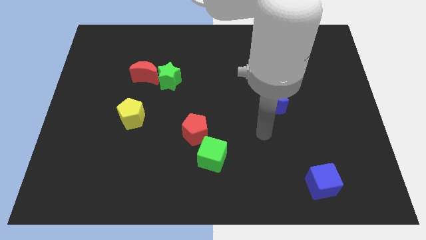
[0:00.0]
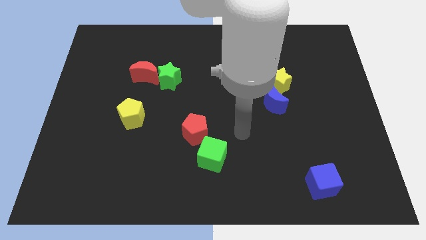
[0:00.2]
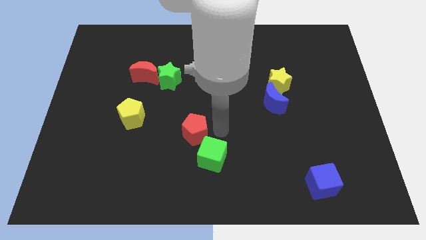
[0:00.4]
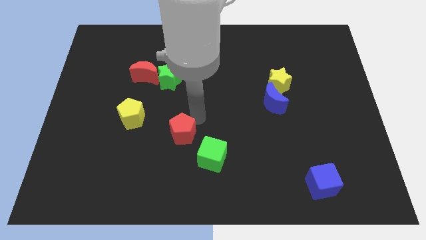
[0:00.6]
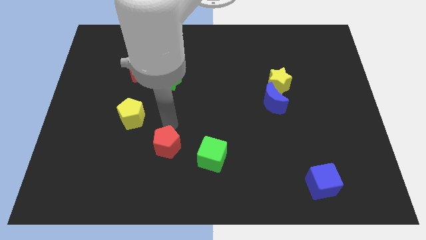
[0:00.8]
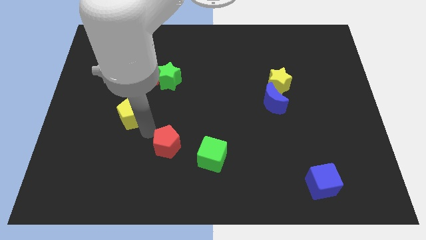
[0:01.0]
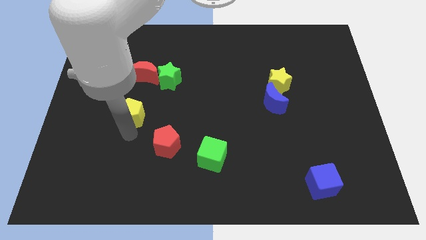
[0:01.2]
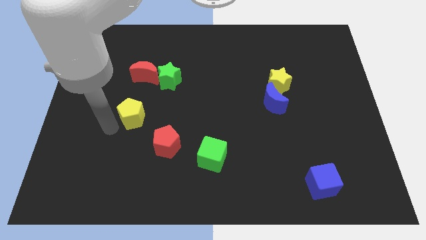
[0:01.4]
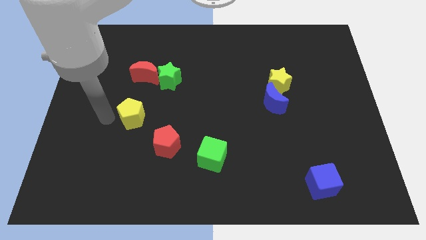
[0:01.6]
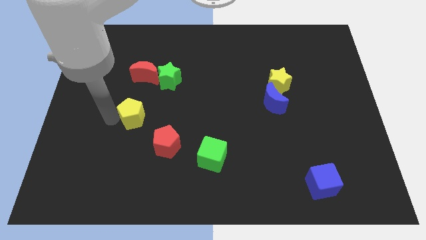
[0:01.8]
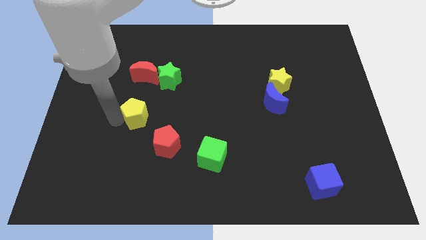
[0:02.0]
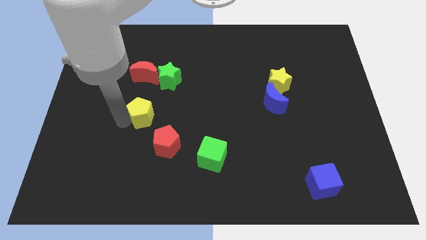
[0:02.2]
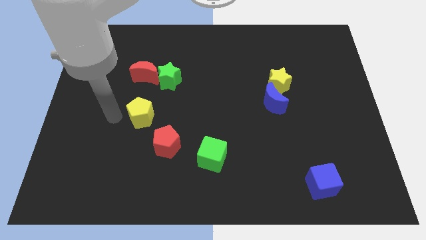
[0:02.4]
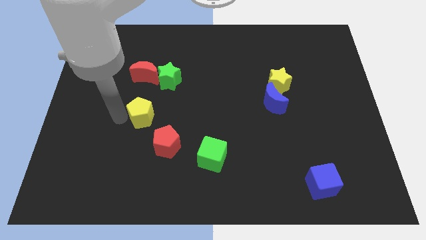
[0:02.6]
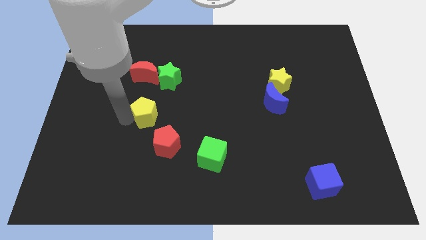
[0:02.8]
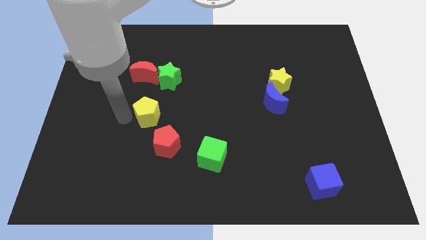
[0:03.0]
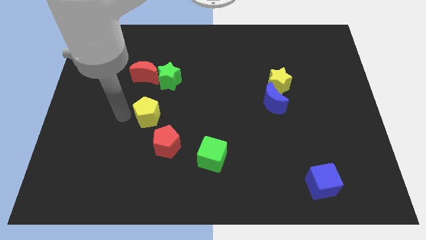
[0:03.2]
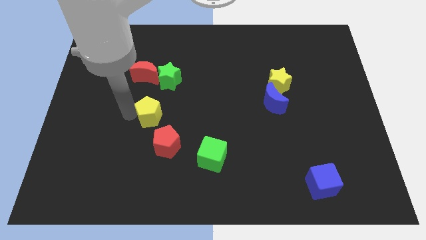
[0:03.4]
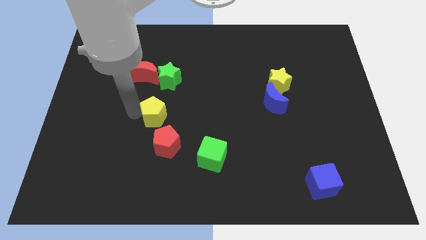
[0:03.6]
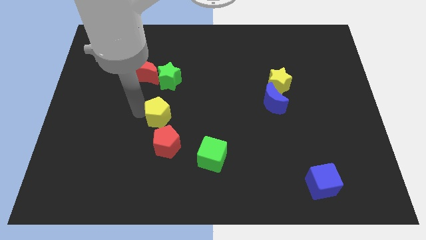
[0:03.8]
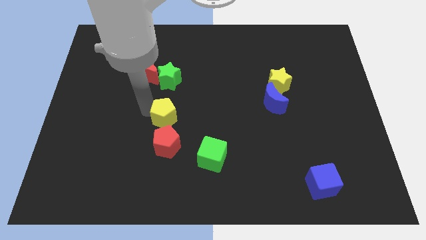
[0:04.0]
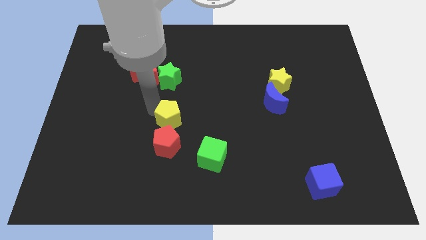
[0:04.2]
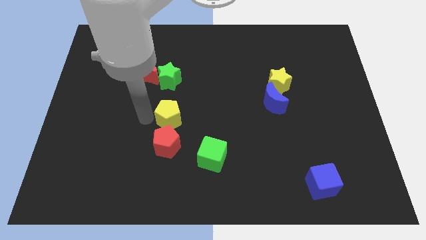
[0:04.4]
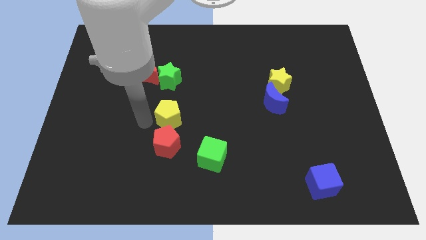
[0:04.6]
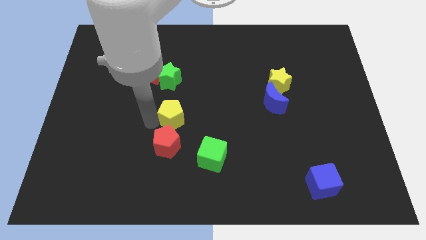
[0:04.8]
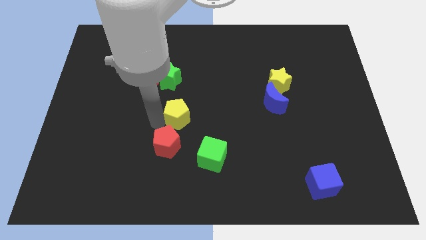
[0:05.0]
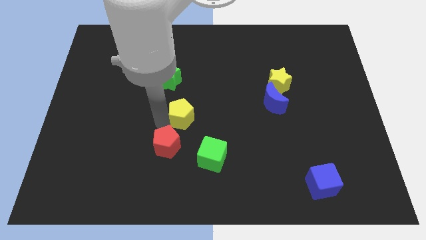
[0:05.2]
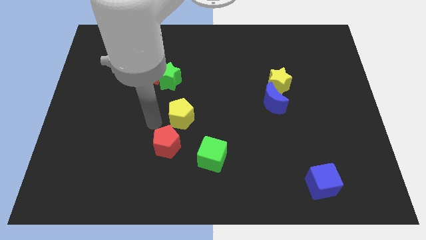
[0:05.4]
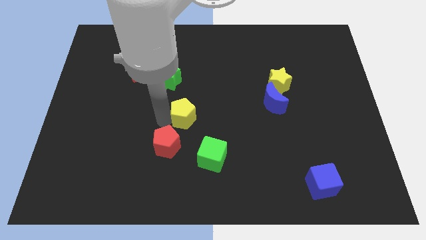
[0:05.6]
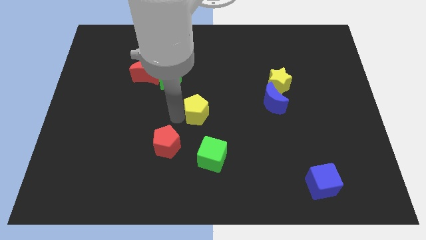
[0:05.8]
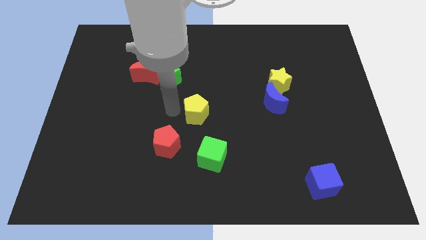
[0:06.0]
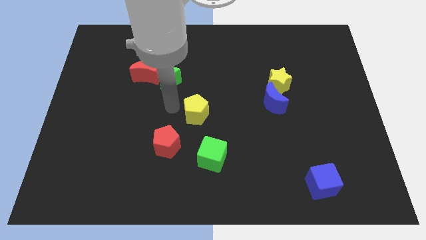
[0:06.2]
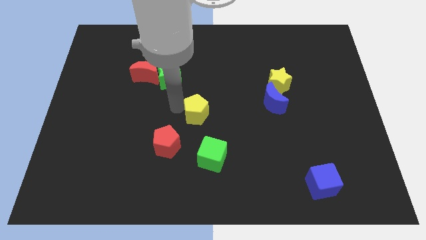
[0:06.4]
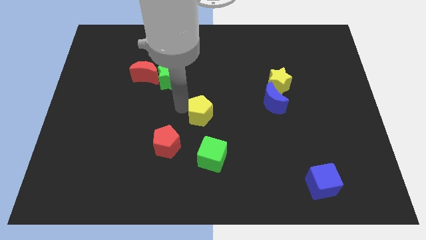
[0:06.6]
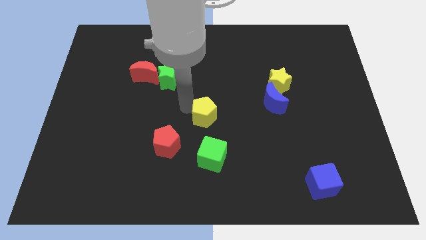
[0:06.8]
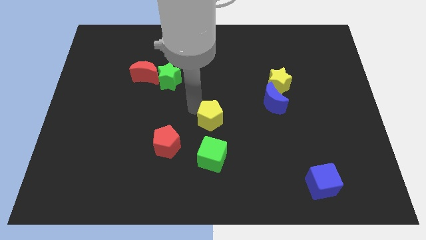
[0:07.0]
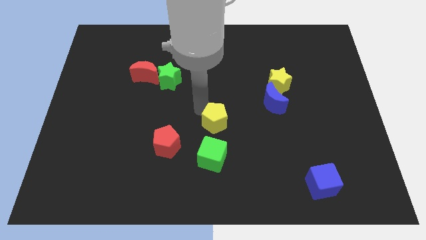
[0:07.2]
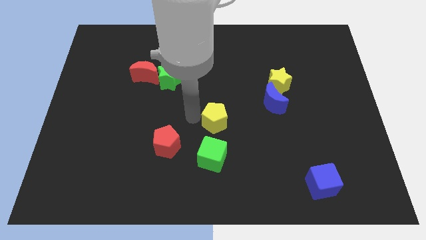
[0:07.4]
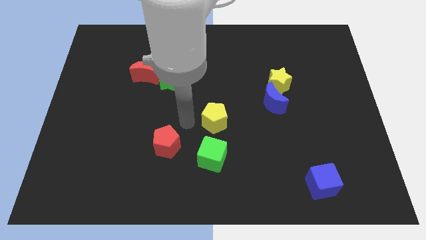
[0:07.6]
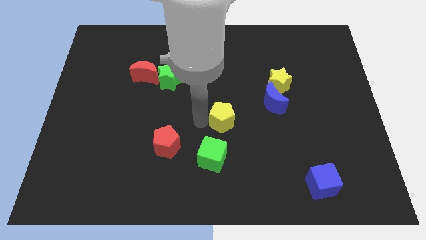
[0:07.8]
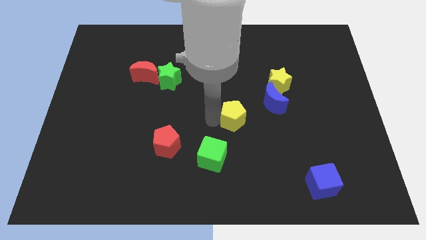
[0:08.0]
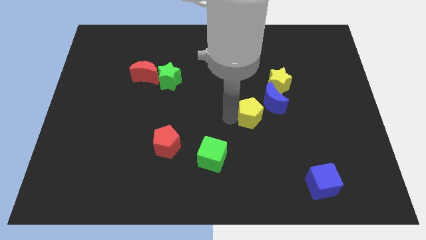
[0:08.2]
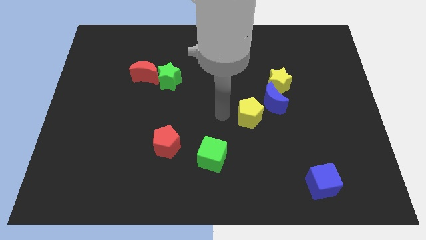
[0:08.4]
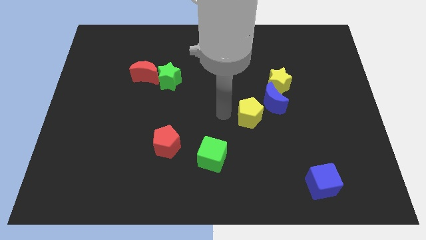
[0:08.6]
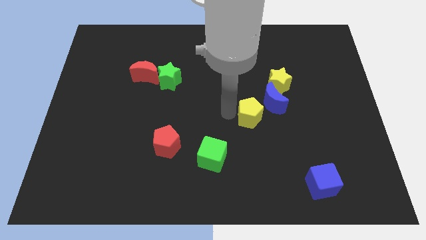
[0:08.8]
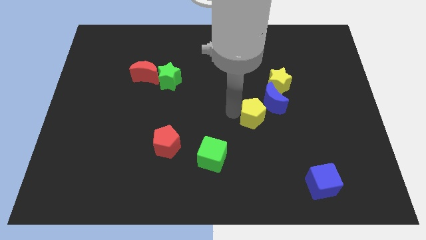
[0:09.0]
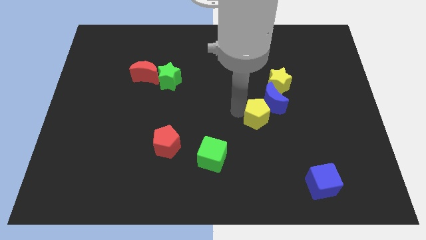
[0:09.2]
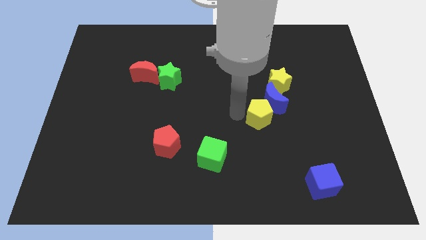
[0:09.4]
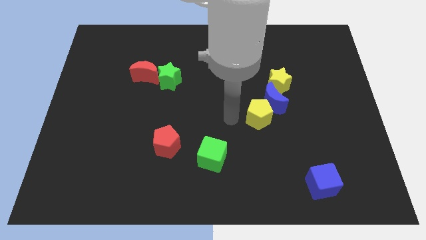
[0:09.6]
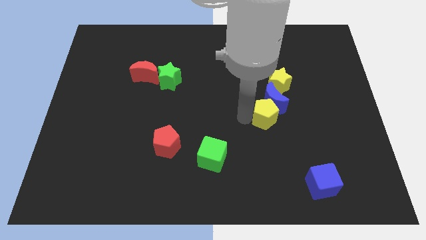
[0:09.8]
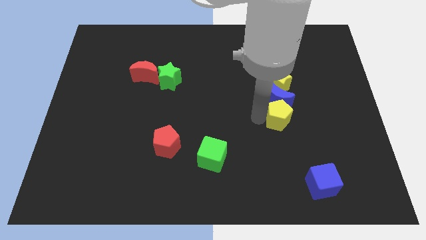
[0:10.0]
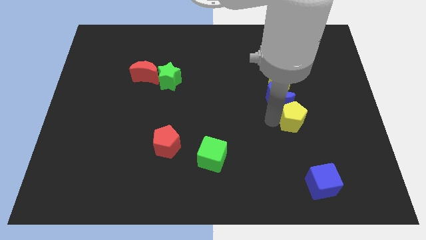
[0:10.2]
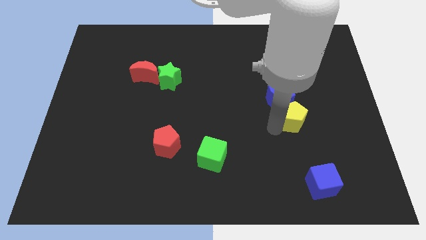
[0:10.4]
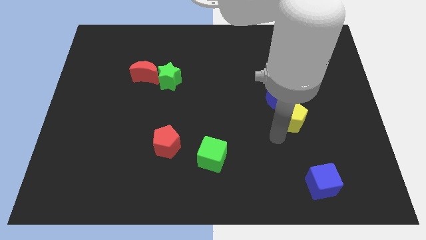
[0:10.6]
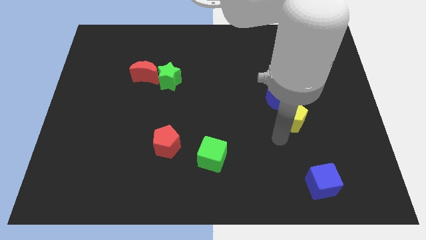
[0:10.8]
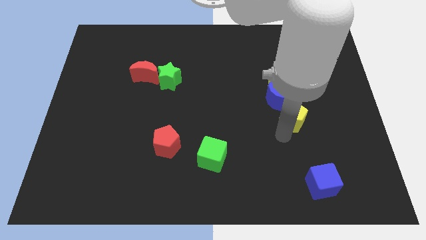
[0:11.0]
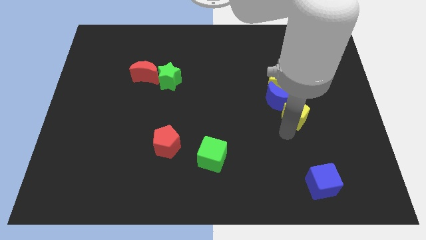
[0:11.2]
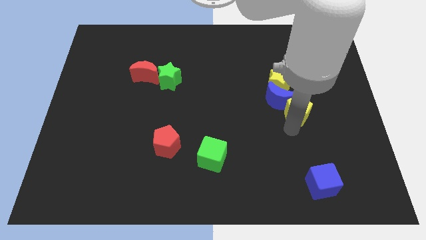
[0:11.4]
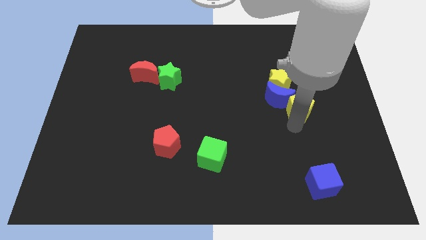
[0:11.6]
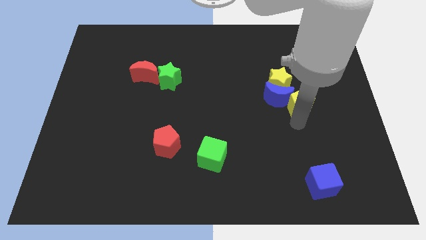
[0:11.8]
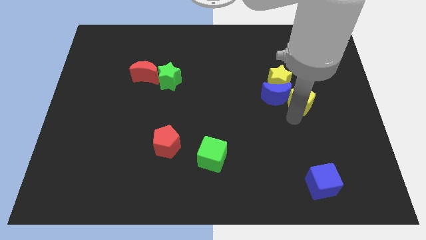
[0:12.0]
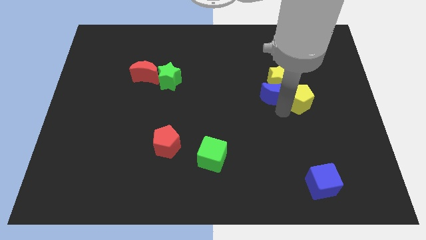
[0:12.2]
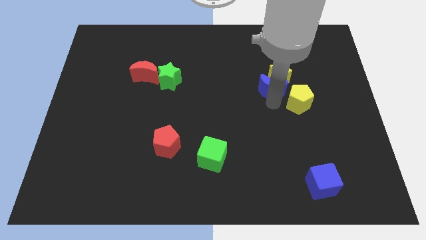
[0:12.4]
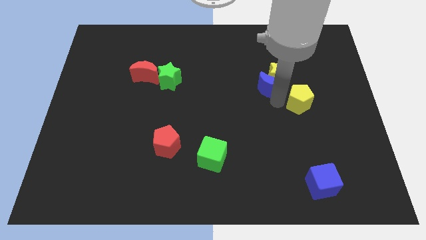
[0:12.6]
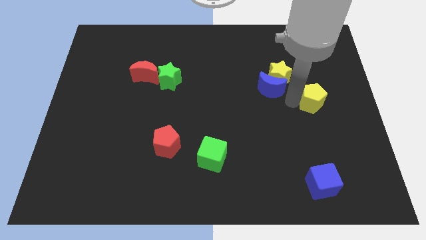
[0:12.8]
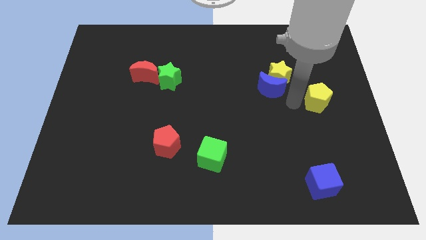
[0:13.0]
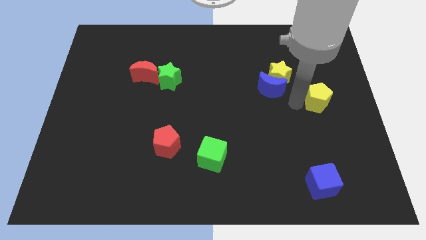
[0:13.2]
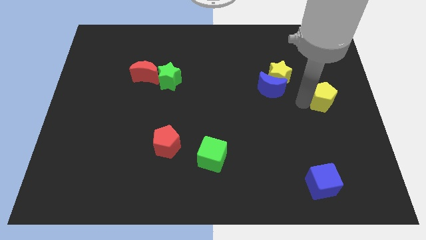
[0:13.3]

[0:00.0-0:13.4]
put the yellow pentagon to the right side

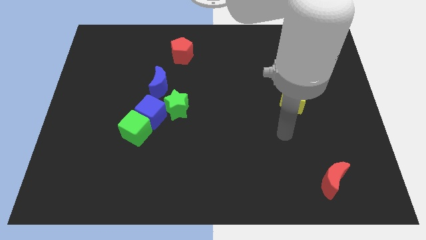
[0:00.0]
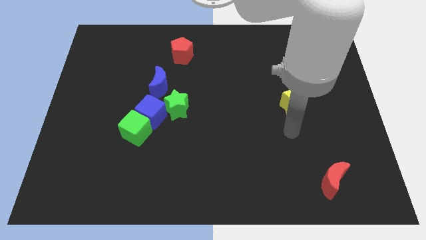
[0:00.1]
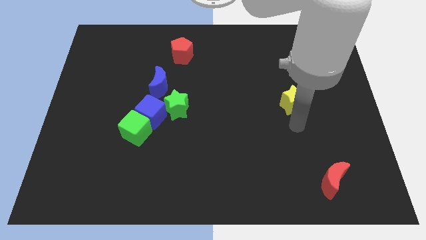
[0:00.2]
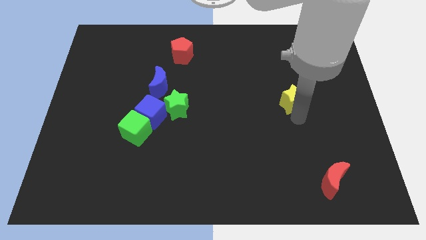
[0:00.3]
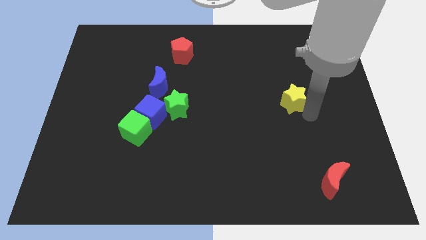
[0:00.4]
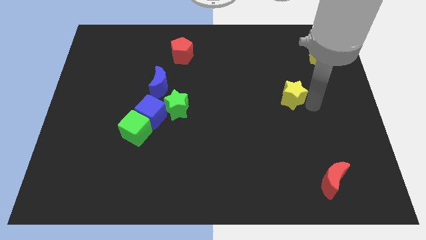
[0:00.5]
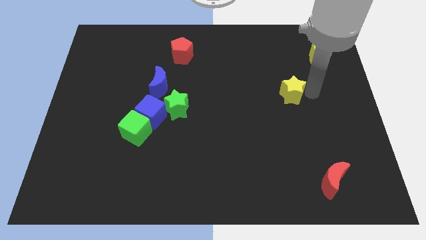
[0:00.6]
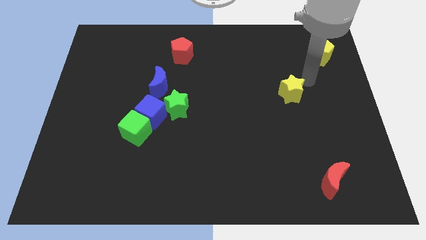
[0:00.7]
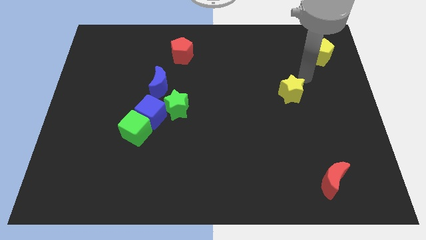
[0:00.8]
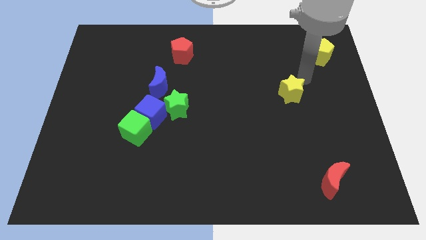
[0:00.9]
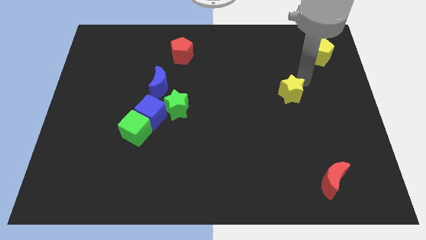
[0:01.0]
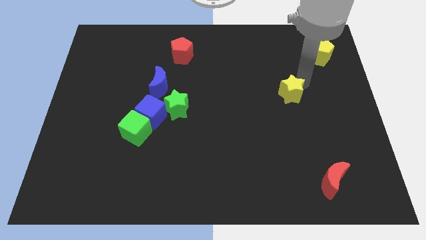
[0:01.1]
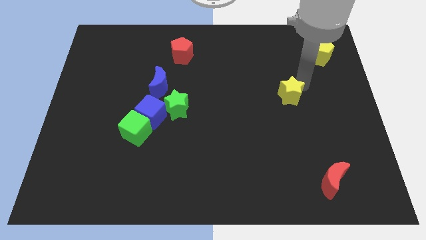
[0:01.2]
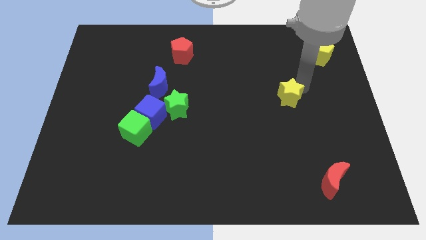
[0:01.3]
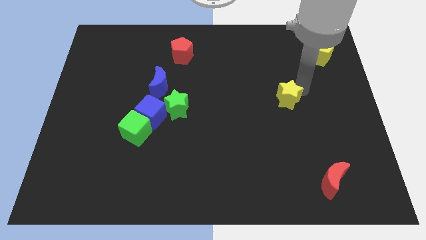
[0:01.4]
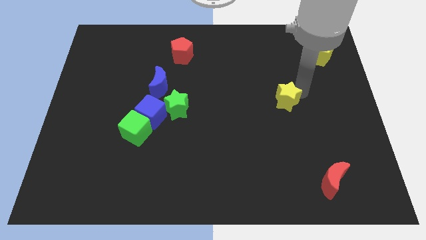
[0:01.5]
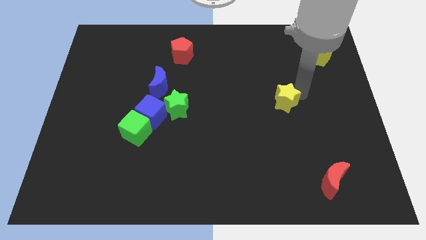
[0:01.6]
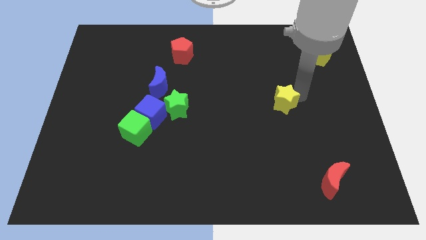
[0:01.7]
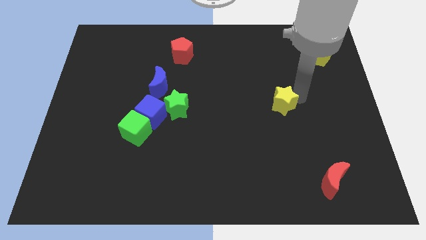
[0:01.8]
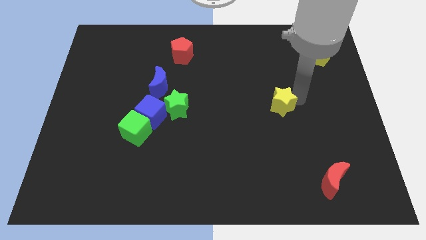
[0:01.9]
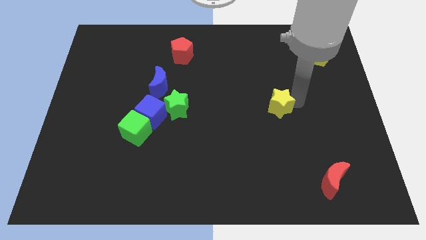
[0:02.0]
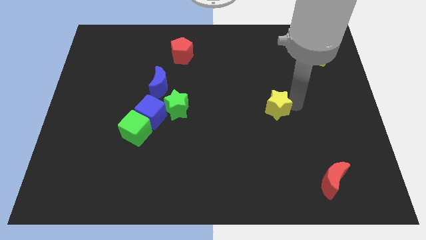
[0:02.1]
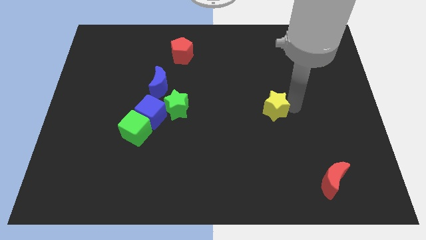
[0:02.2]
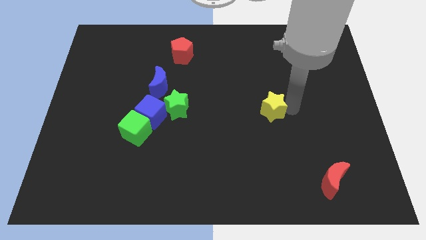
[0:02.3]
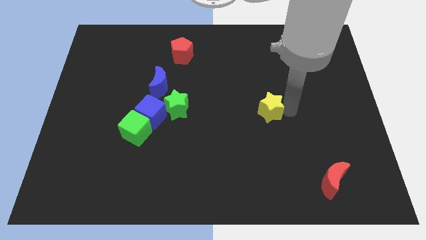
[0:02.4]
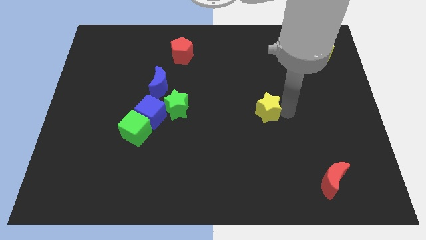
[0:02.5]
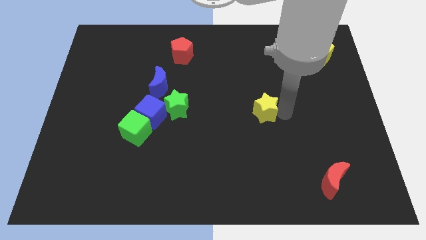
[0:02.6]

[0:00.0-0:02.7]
move the yellow star to the middle of the board
